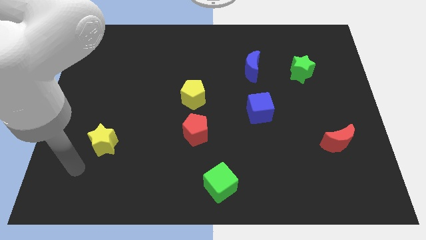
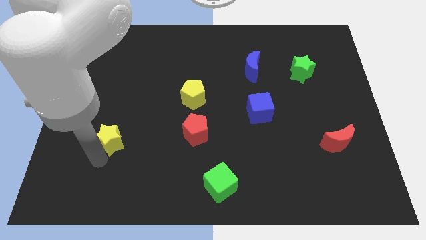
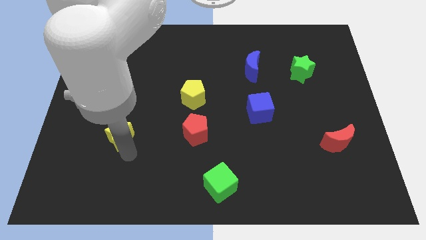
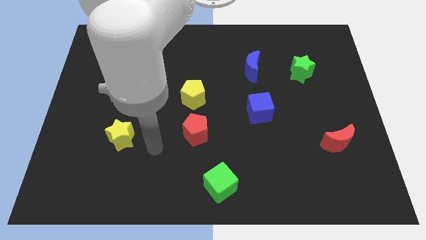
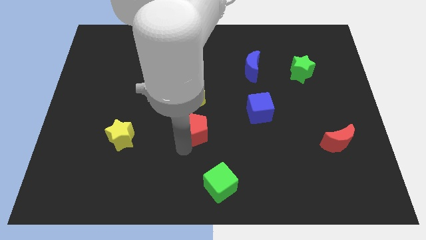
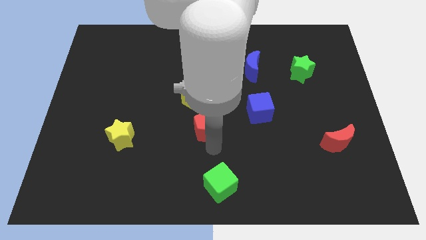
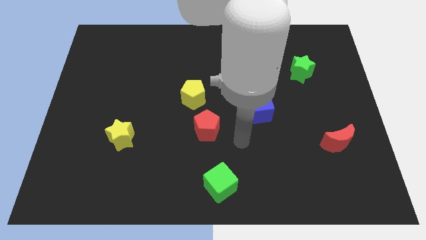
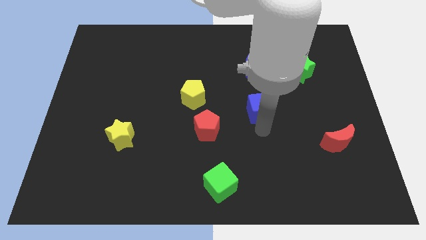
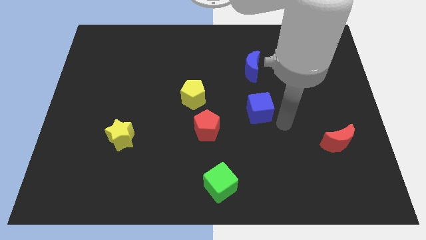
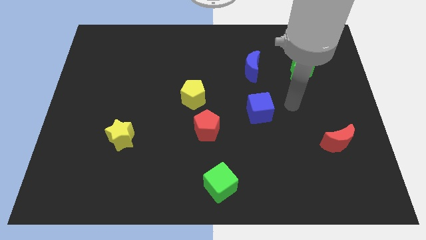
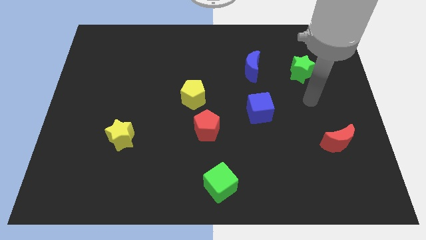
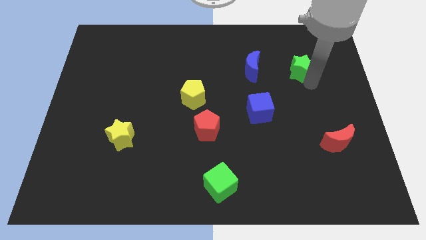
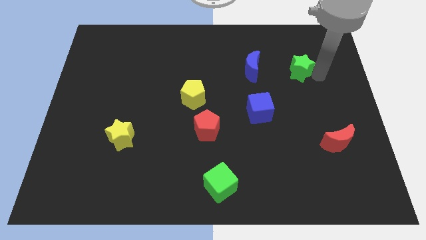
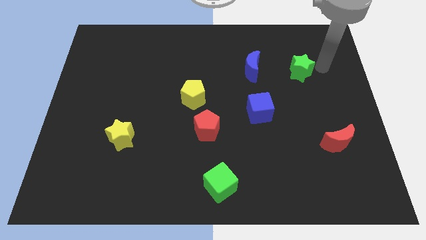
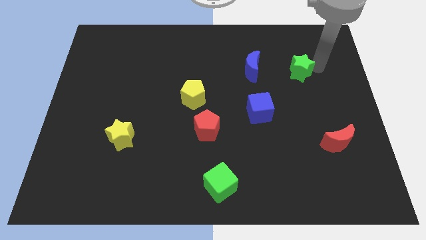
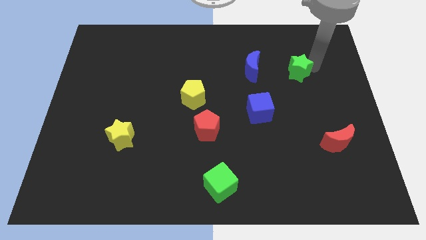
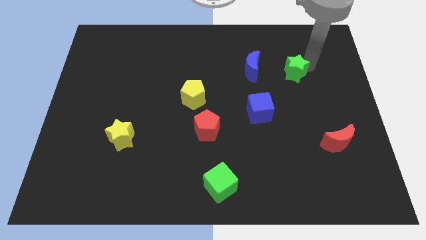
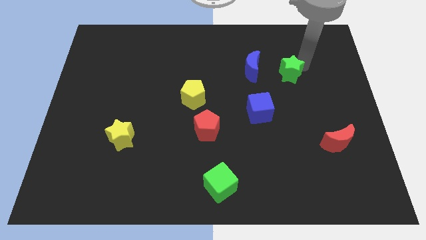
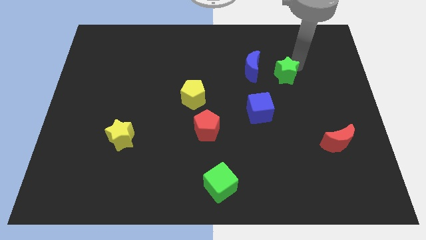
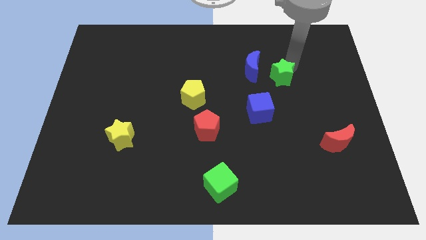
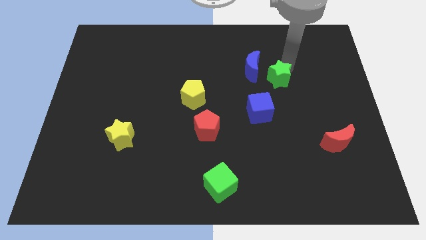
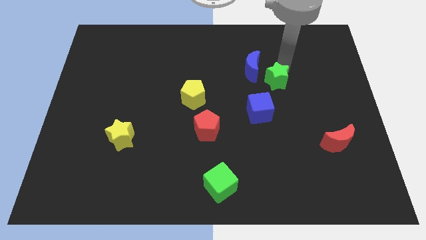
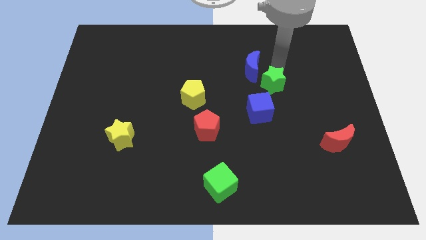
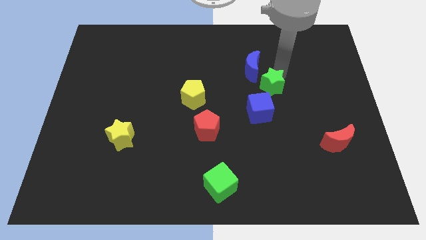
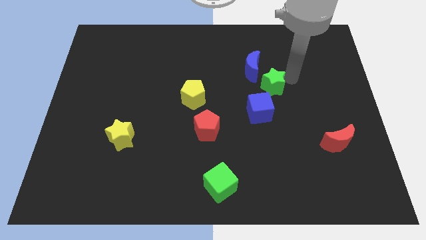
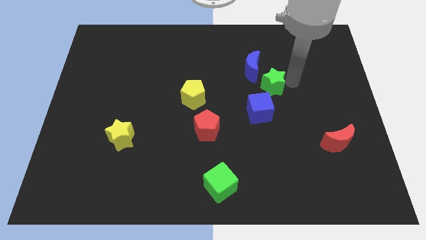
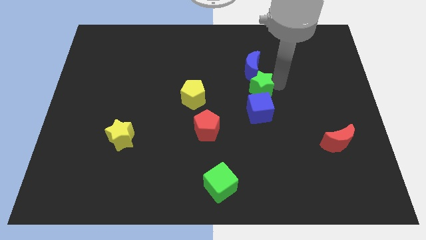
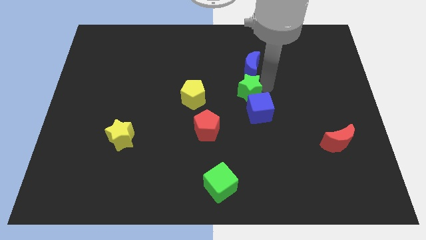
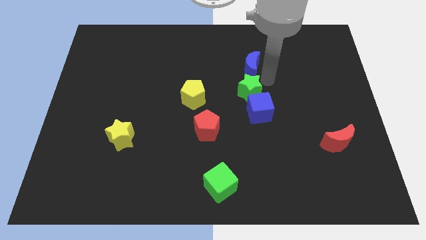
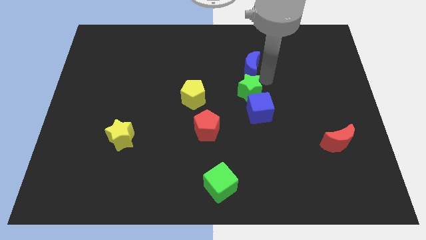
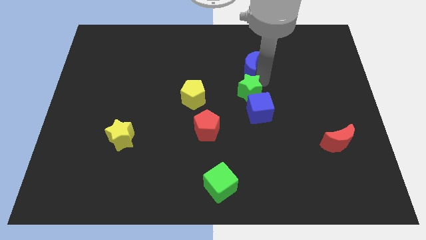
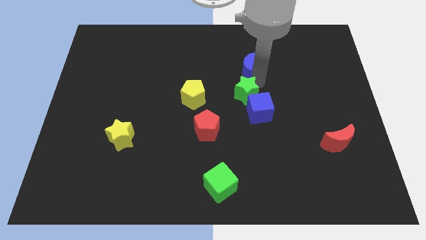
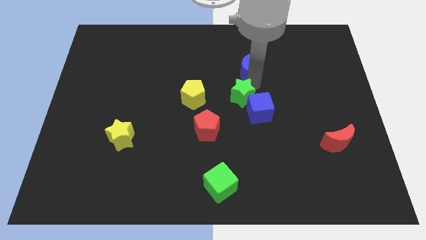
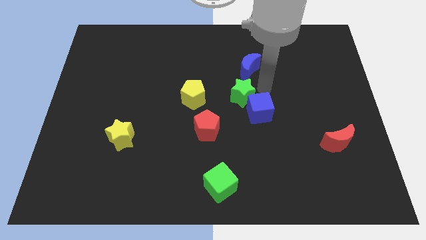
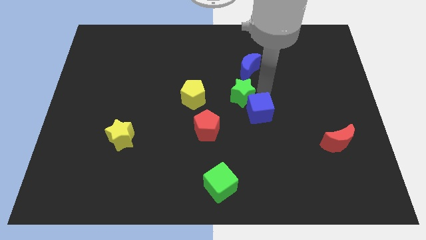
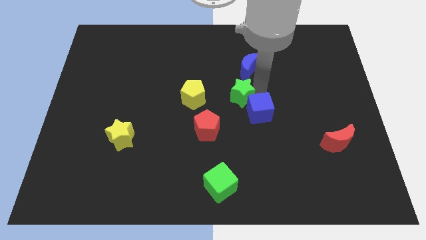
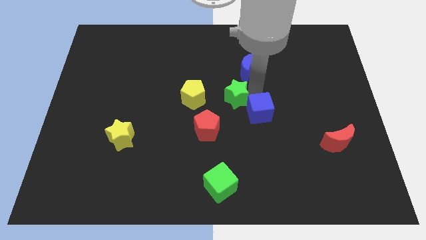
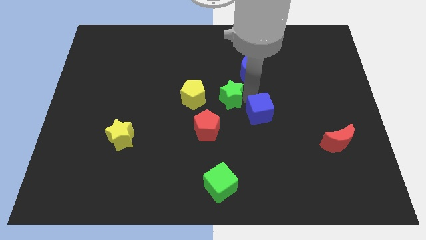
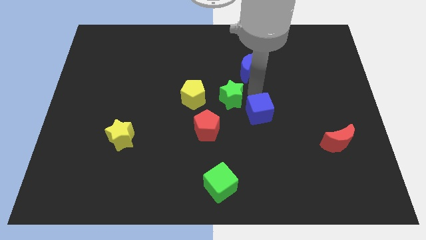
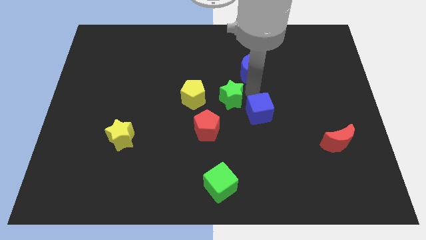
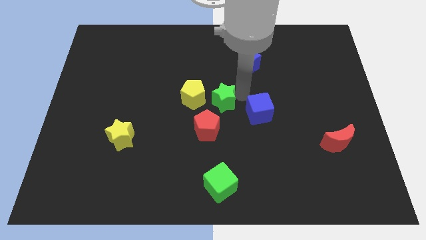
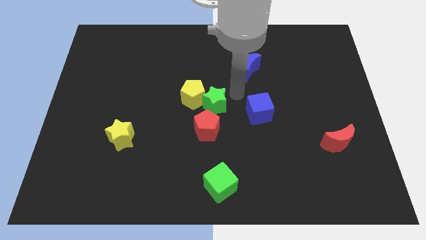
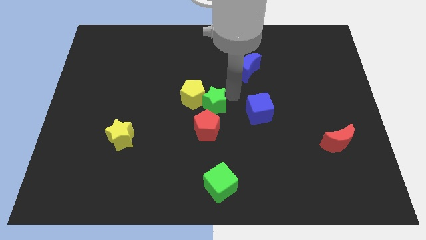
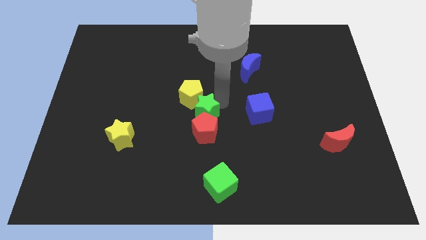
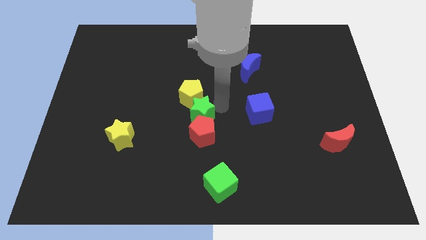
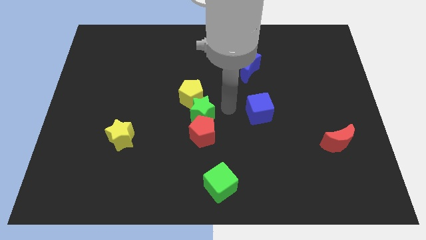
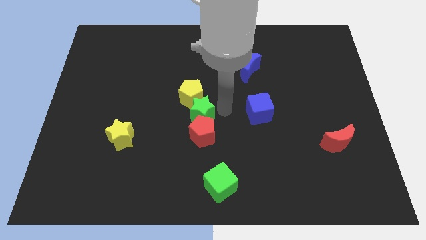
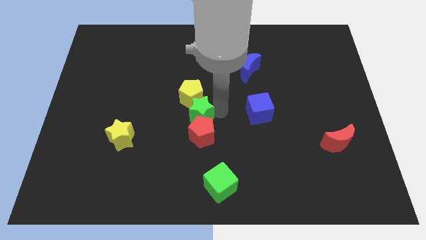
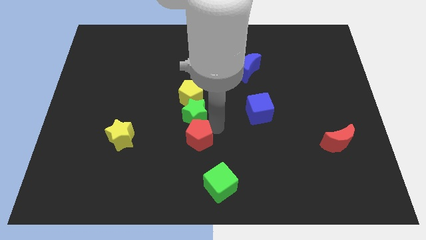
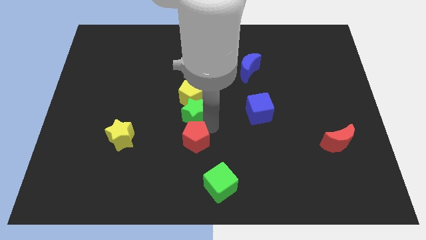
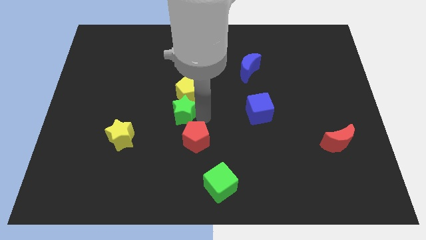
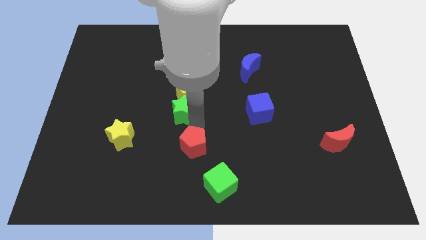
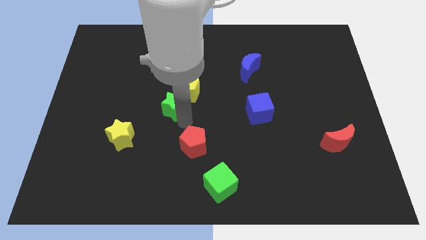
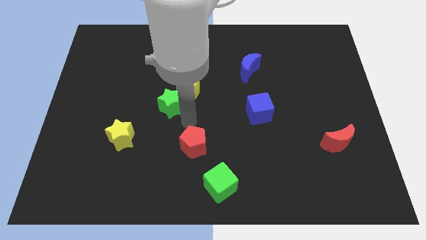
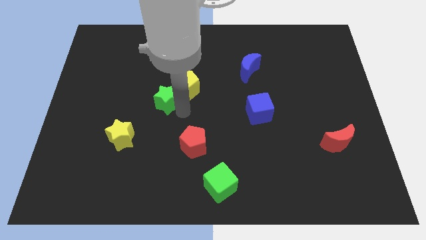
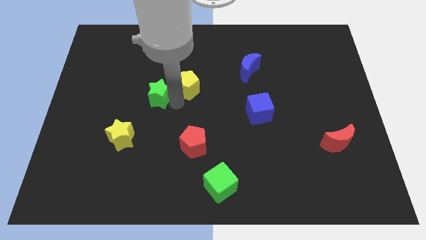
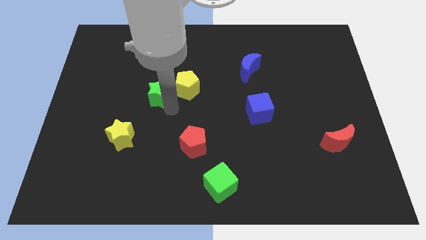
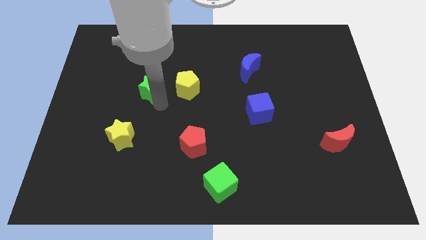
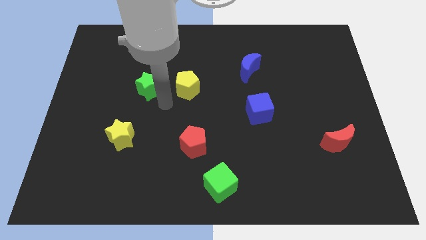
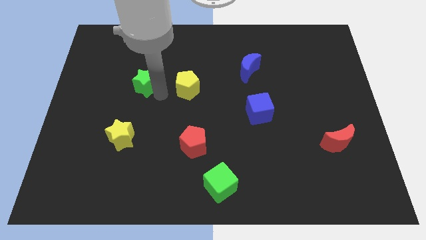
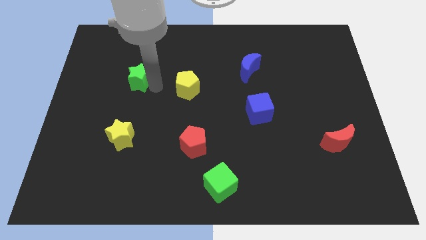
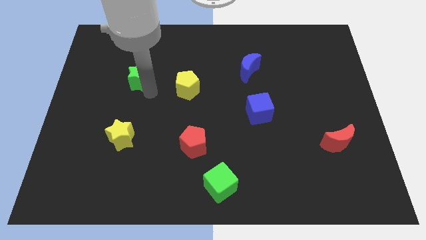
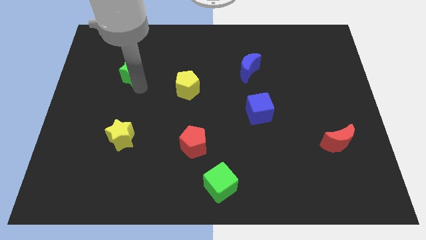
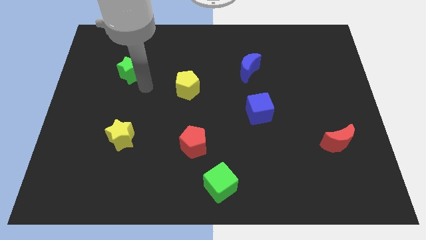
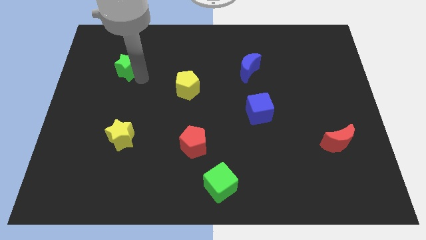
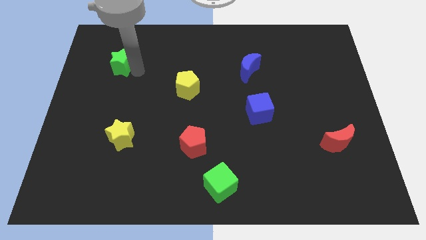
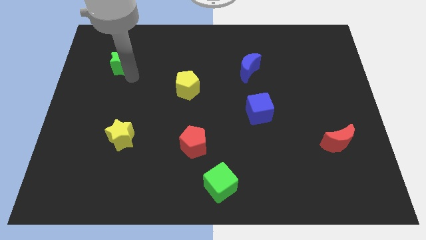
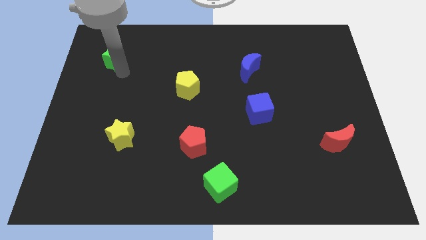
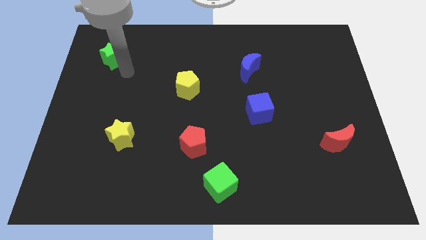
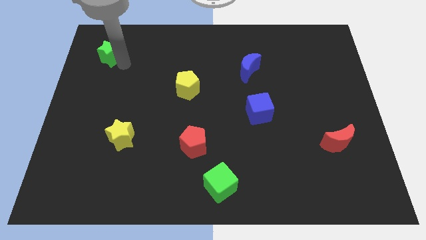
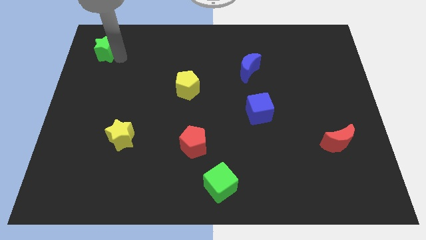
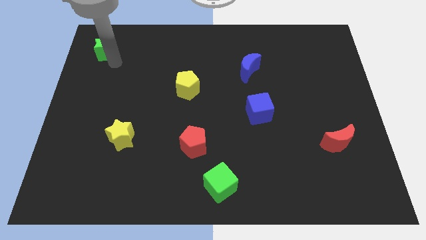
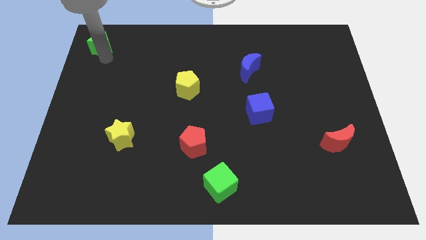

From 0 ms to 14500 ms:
slide the green star to the upper left corner
